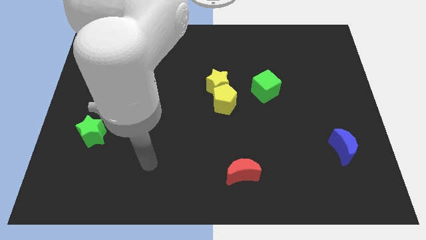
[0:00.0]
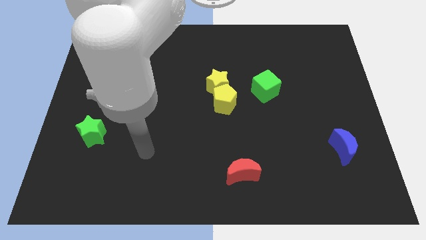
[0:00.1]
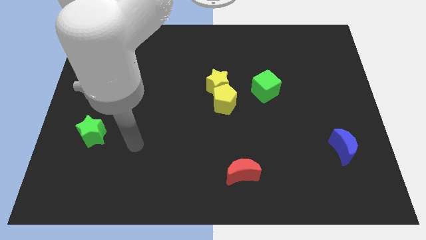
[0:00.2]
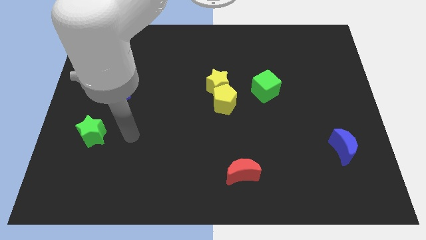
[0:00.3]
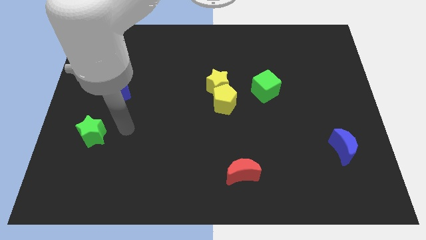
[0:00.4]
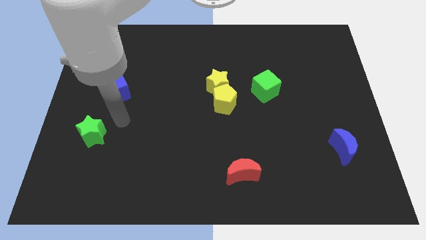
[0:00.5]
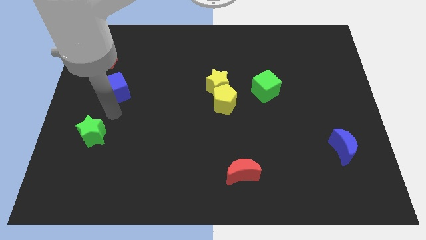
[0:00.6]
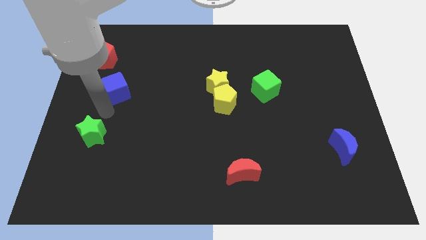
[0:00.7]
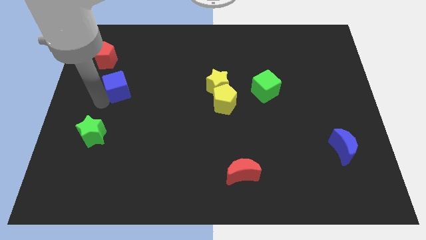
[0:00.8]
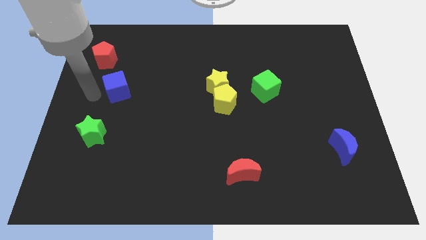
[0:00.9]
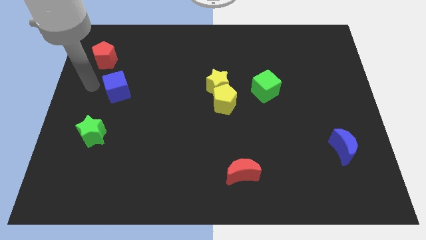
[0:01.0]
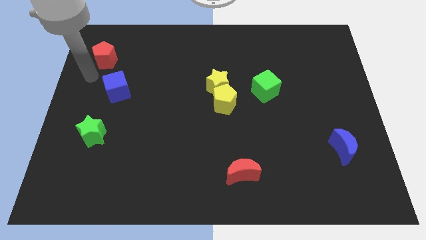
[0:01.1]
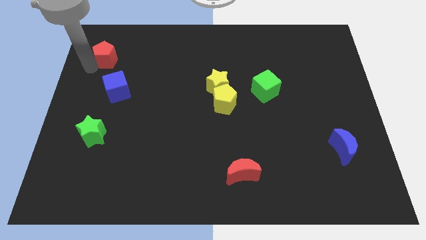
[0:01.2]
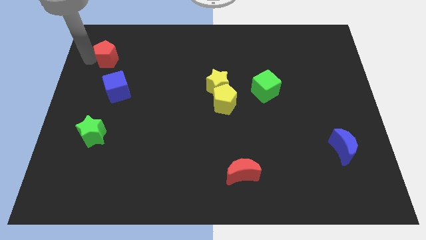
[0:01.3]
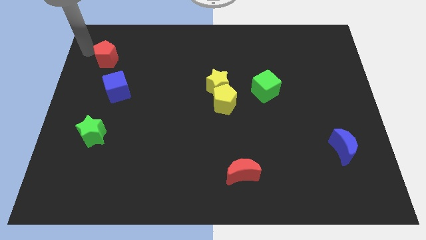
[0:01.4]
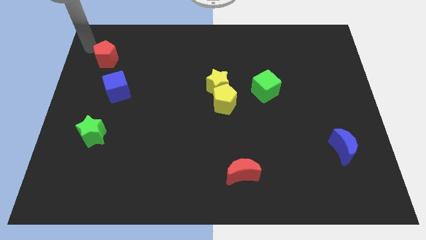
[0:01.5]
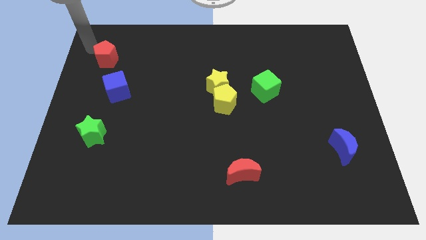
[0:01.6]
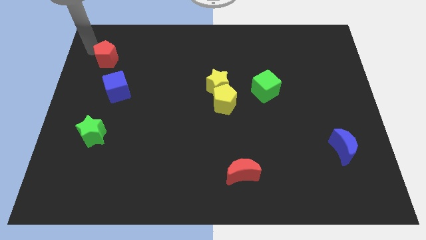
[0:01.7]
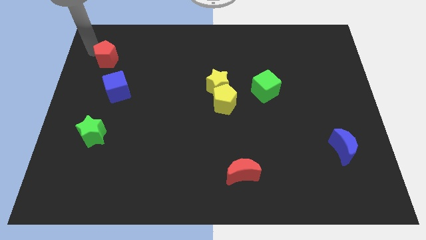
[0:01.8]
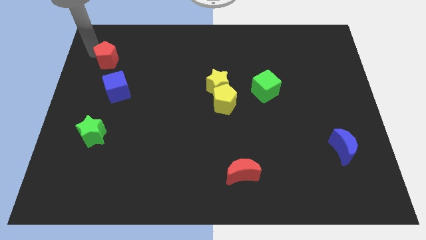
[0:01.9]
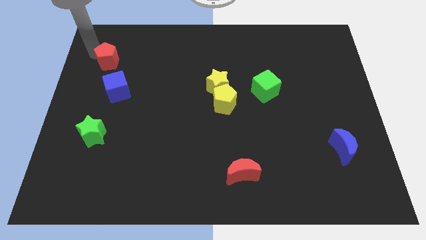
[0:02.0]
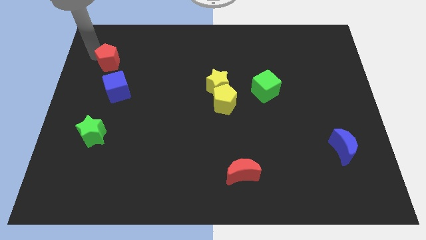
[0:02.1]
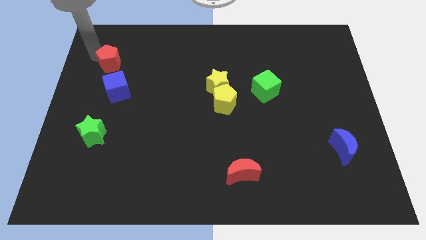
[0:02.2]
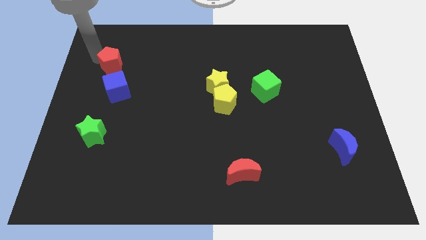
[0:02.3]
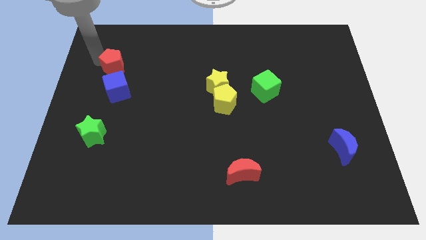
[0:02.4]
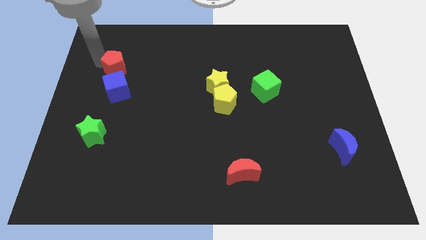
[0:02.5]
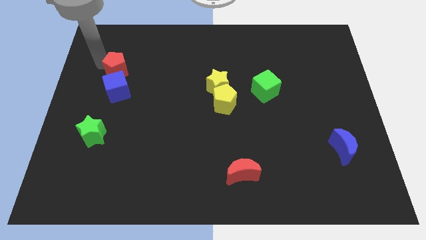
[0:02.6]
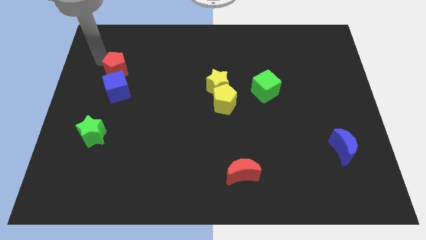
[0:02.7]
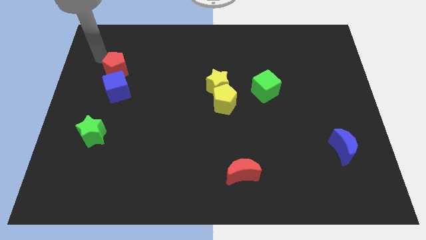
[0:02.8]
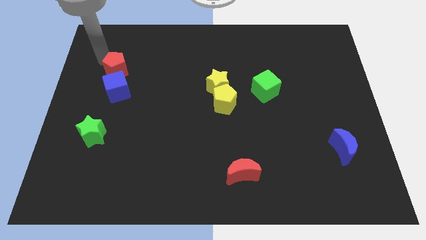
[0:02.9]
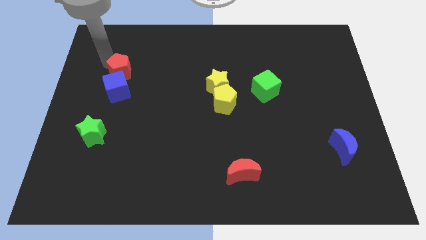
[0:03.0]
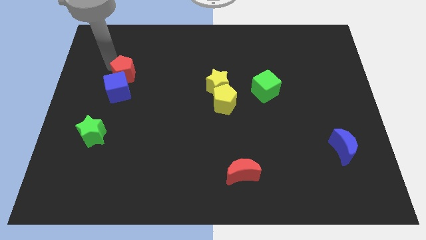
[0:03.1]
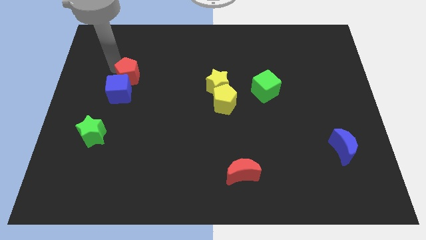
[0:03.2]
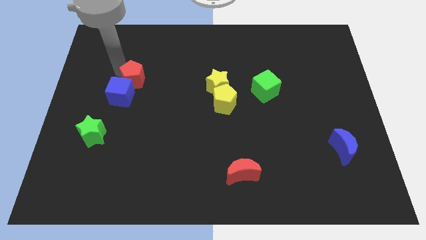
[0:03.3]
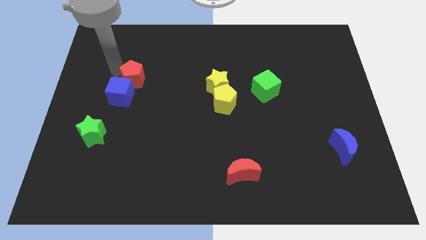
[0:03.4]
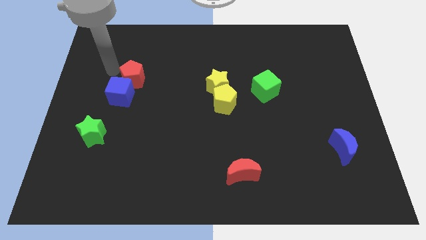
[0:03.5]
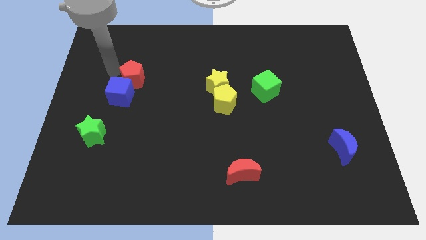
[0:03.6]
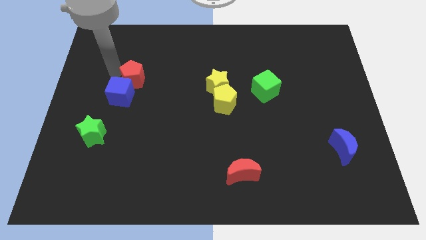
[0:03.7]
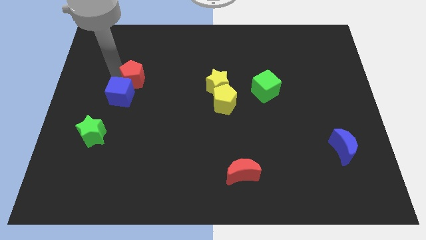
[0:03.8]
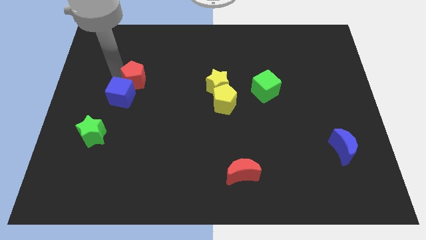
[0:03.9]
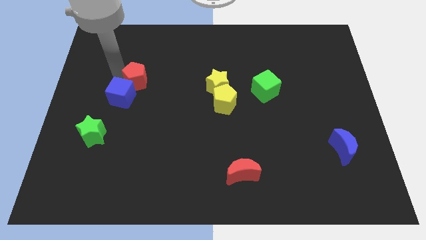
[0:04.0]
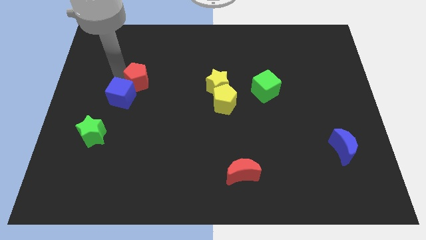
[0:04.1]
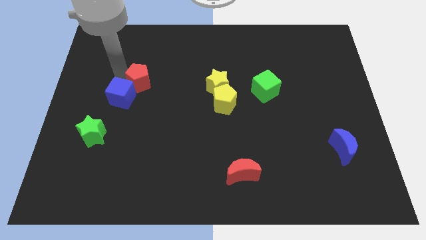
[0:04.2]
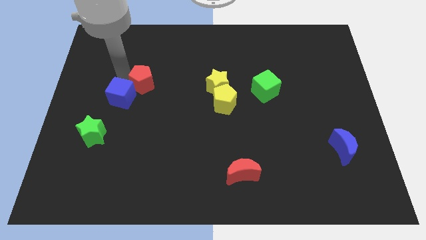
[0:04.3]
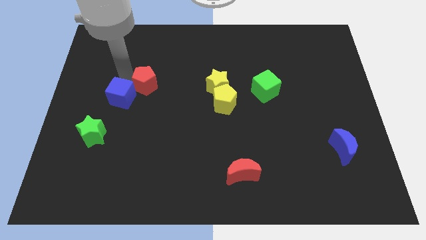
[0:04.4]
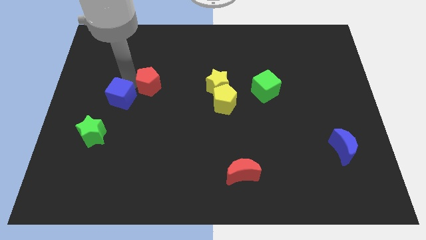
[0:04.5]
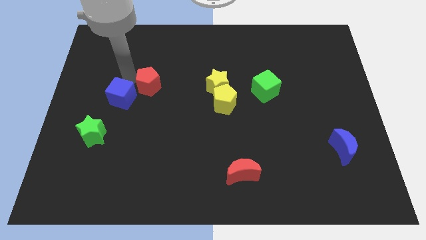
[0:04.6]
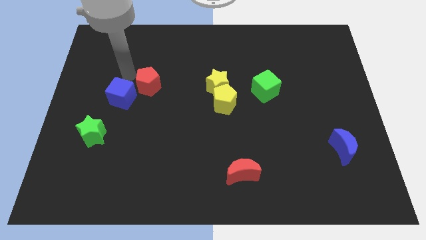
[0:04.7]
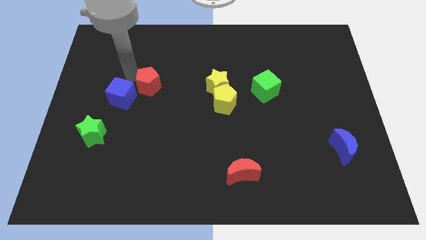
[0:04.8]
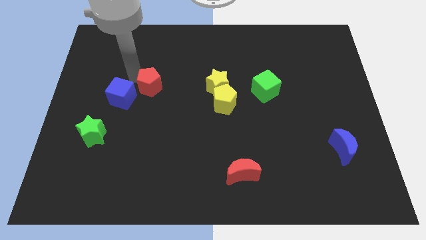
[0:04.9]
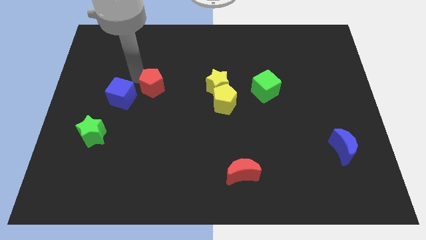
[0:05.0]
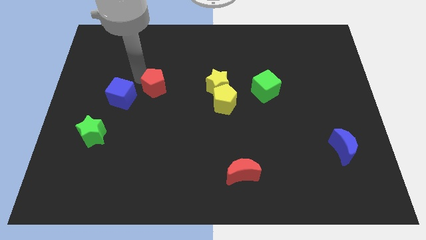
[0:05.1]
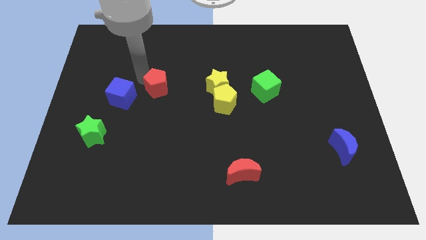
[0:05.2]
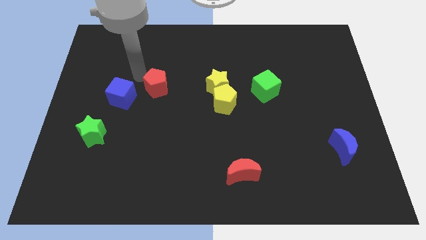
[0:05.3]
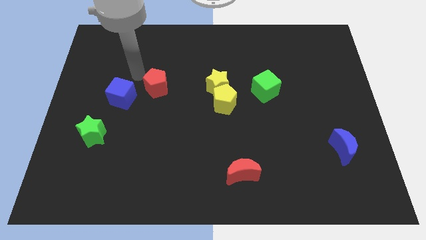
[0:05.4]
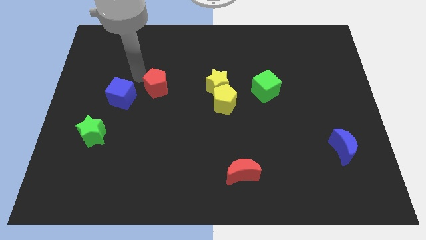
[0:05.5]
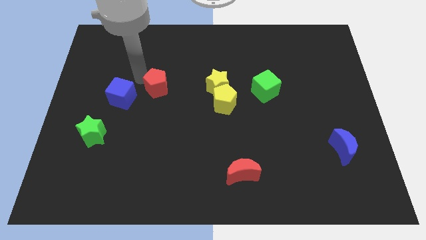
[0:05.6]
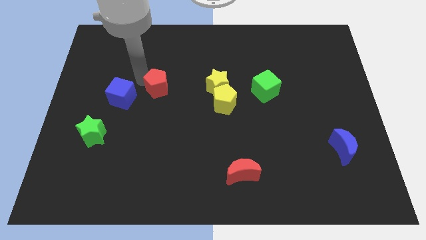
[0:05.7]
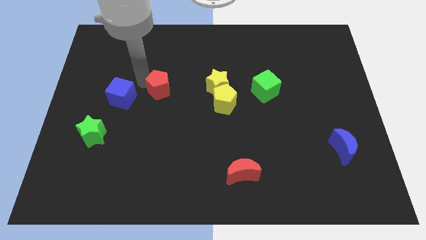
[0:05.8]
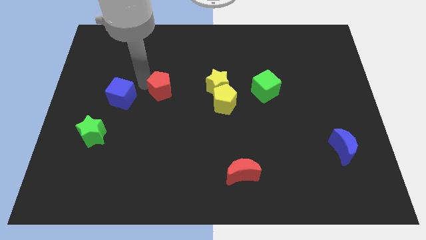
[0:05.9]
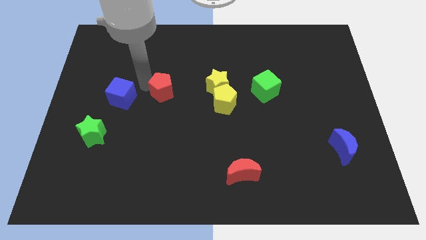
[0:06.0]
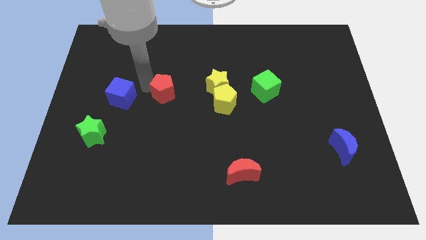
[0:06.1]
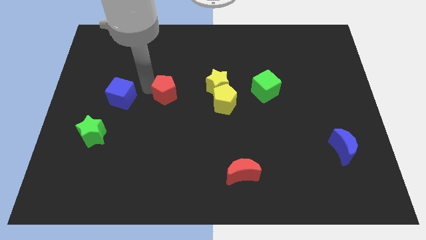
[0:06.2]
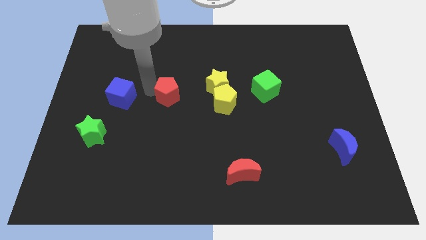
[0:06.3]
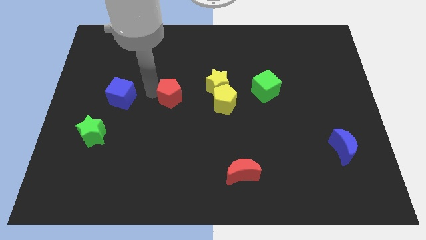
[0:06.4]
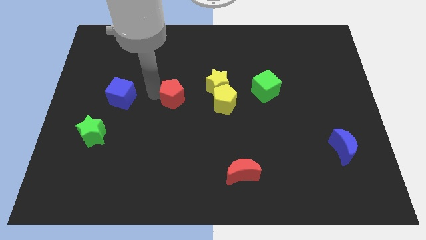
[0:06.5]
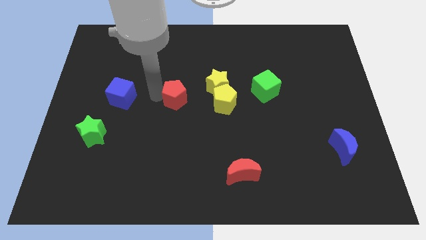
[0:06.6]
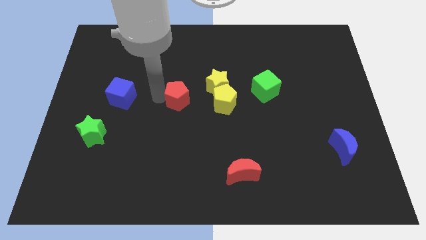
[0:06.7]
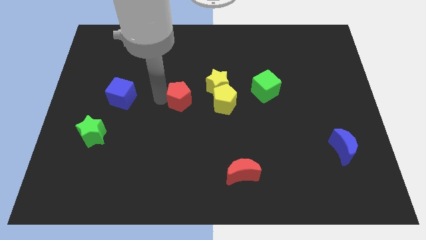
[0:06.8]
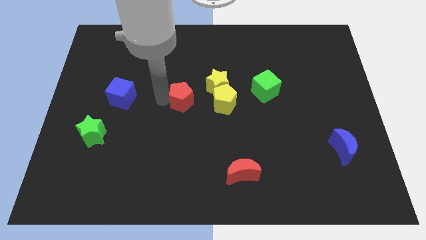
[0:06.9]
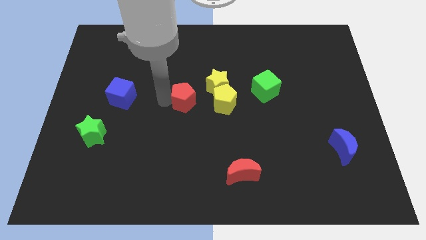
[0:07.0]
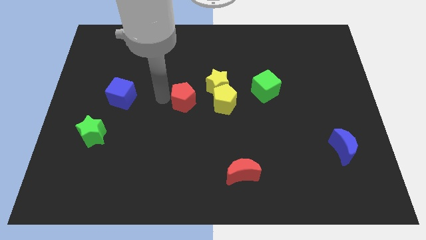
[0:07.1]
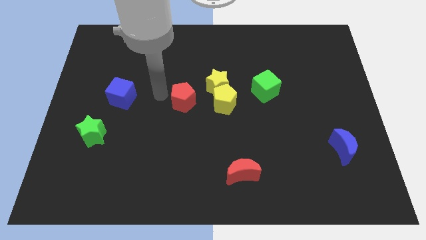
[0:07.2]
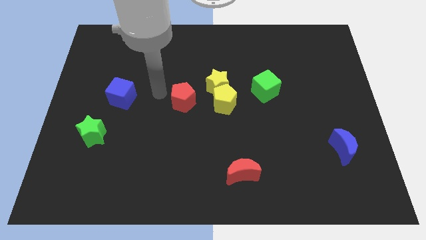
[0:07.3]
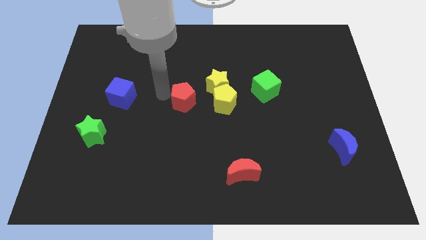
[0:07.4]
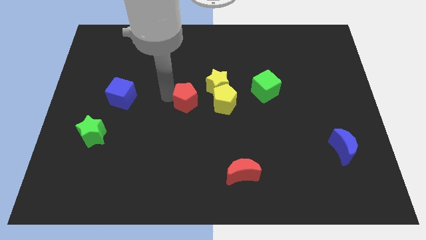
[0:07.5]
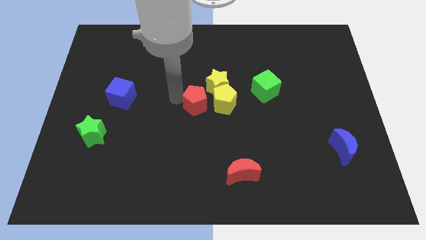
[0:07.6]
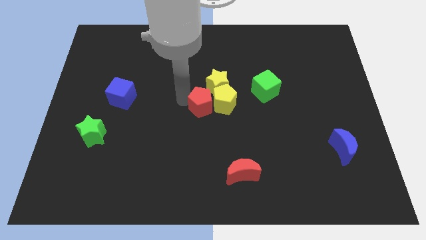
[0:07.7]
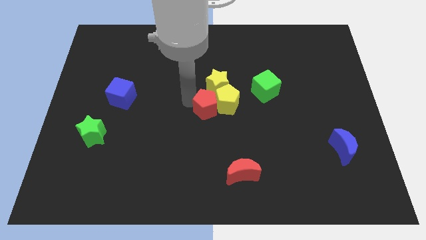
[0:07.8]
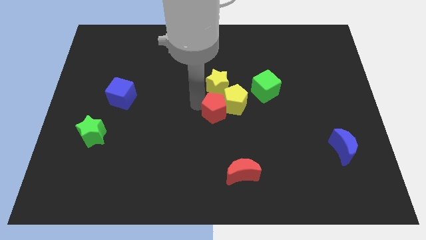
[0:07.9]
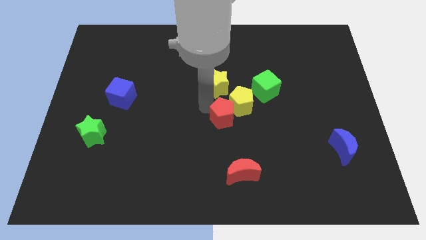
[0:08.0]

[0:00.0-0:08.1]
slide the red pentagon to the top of the red moon
